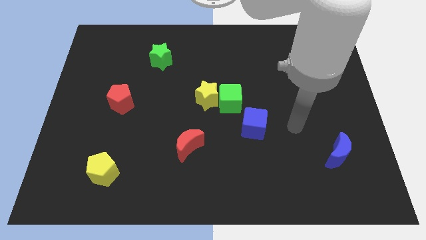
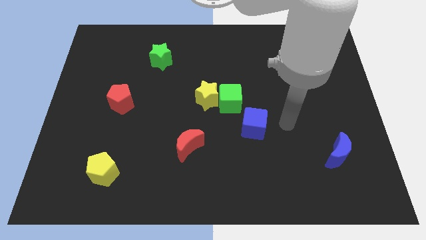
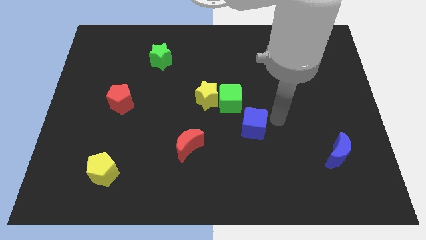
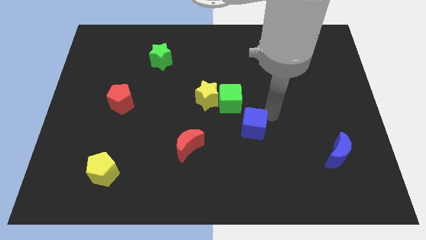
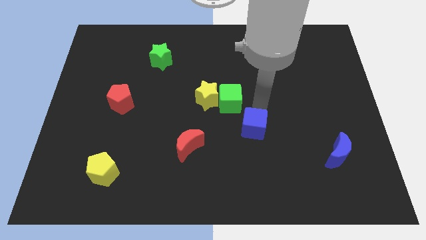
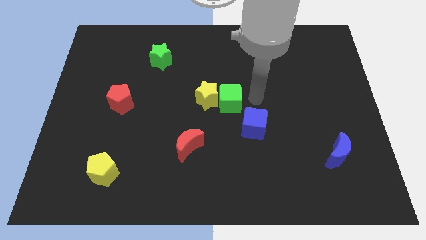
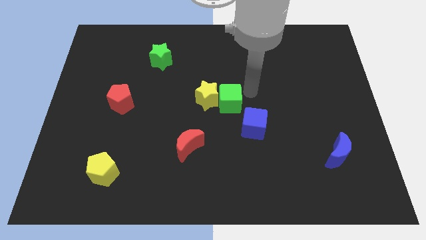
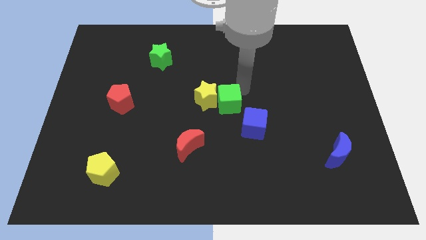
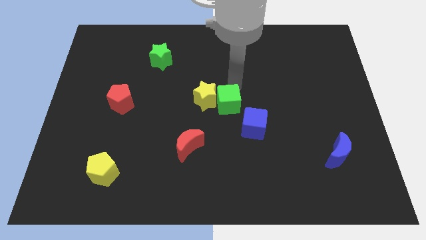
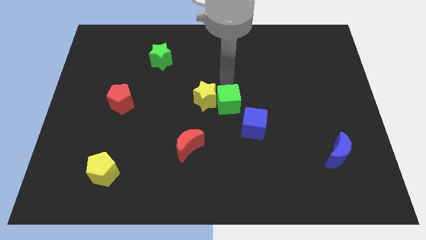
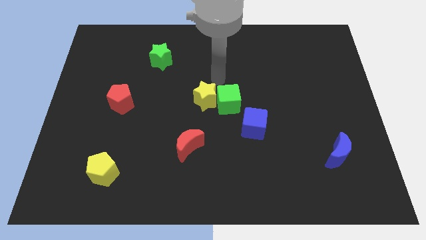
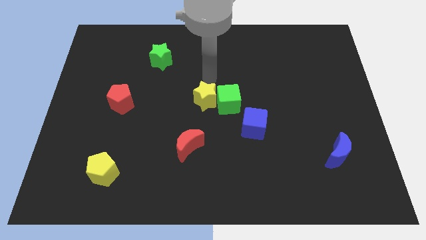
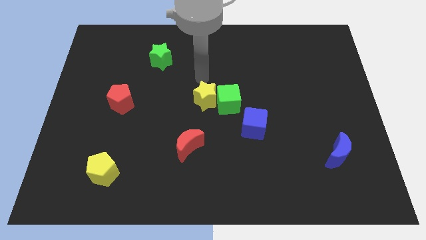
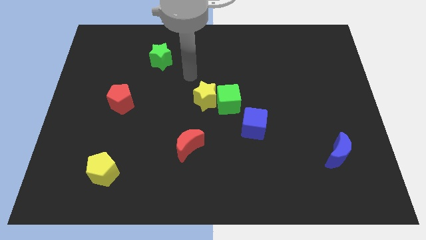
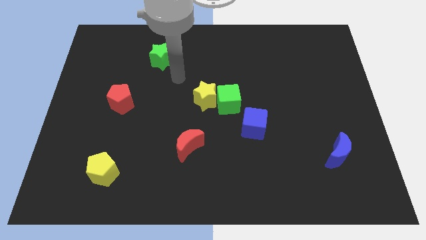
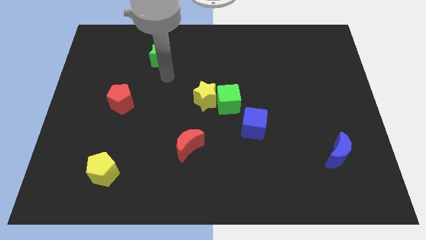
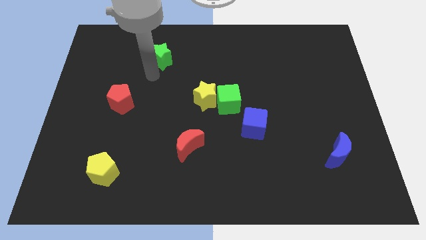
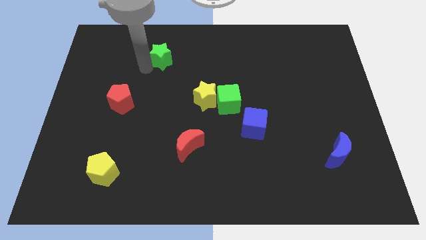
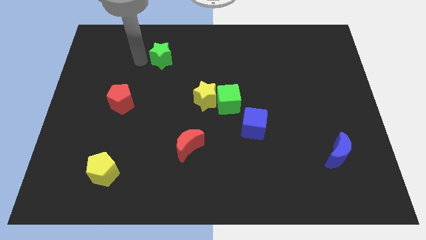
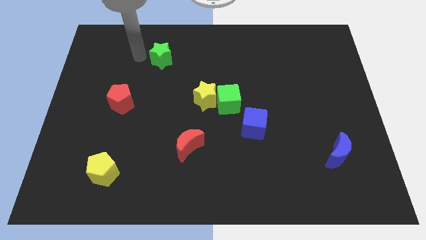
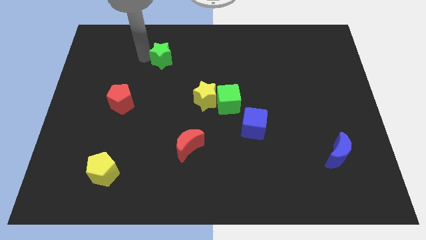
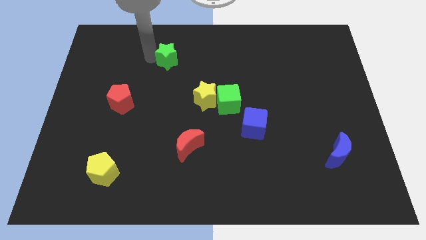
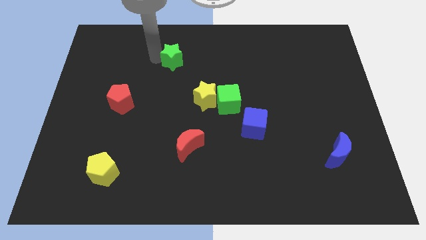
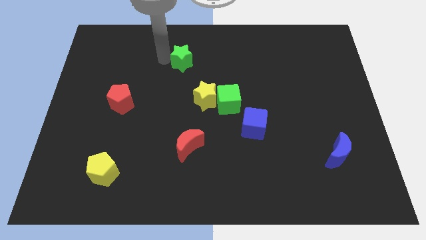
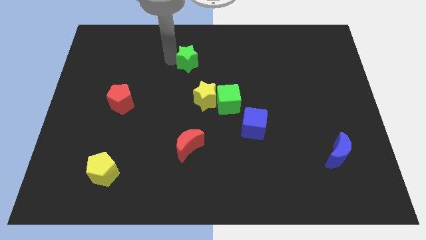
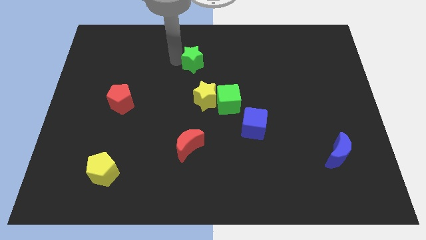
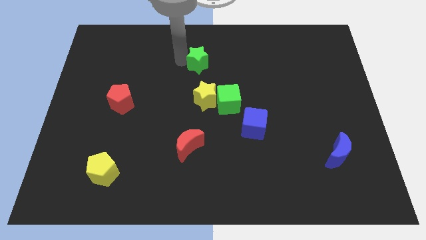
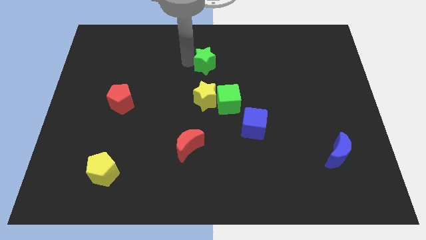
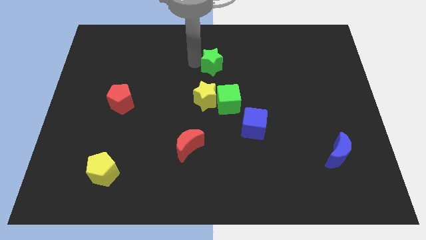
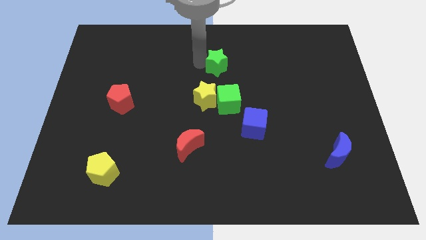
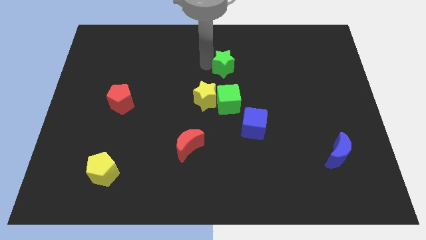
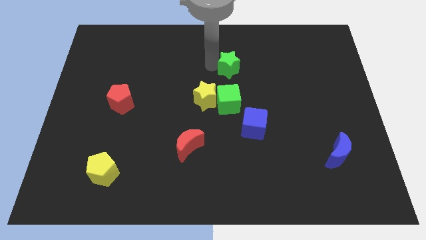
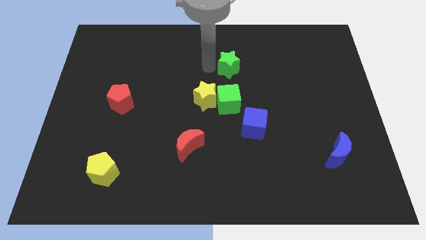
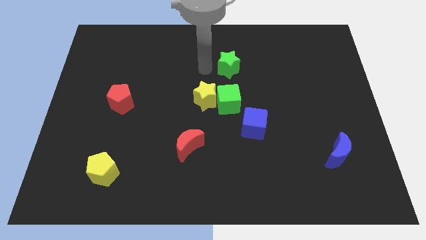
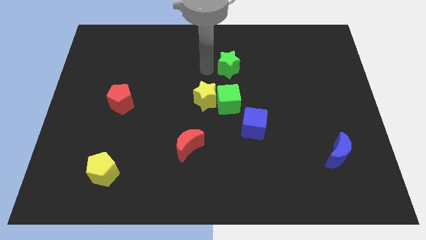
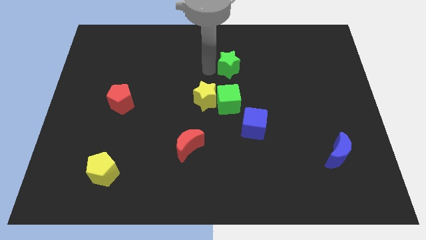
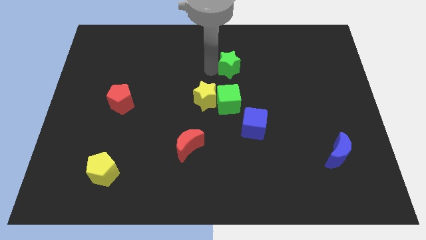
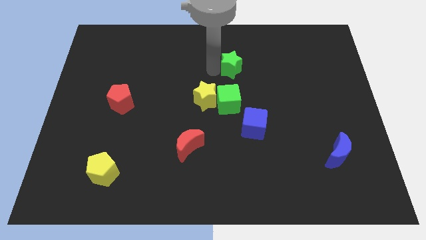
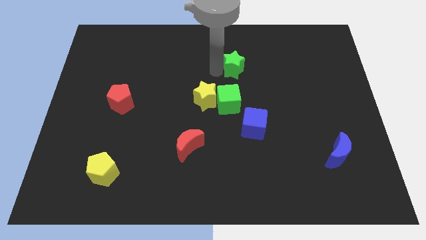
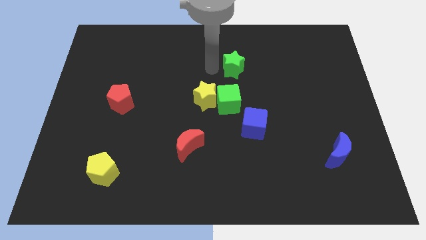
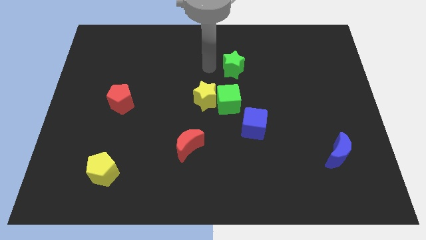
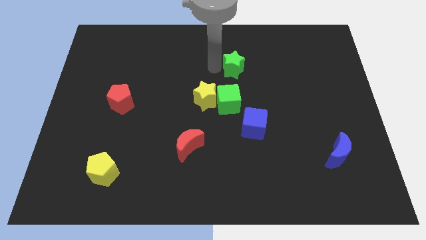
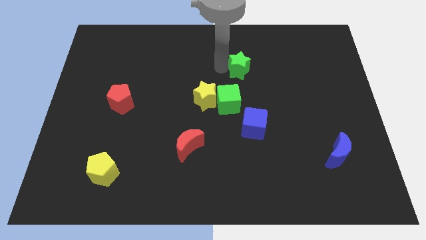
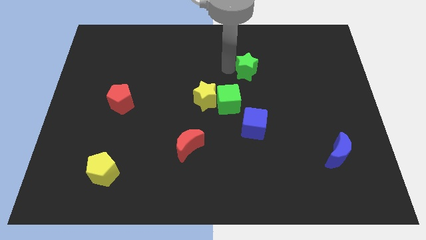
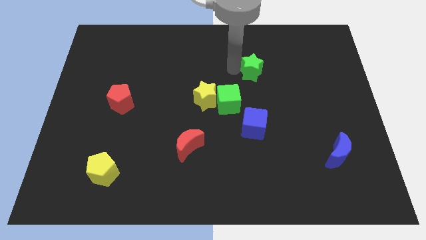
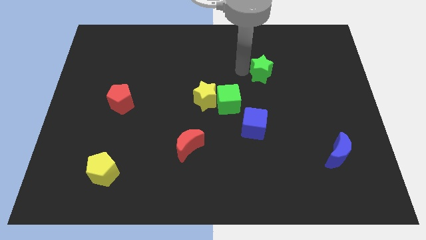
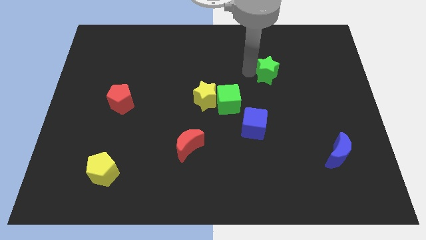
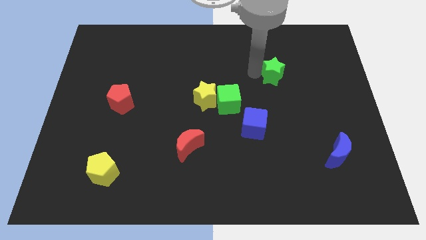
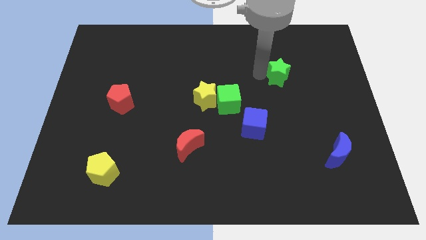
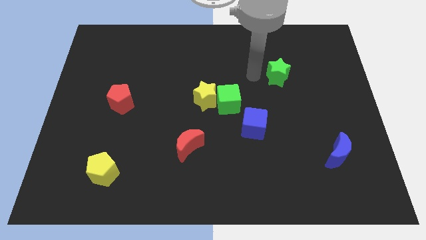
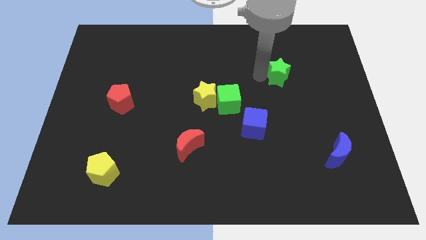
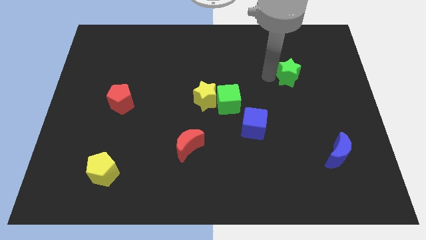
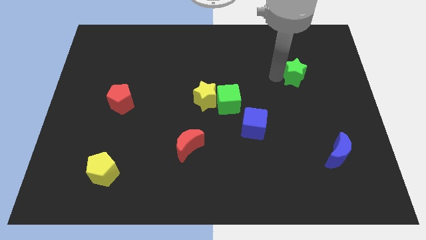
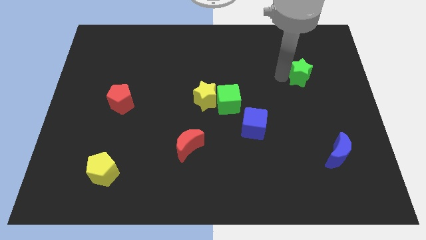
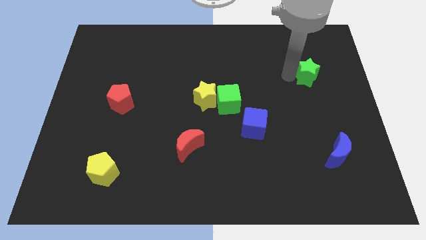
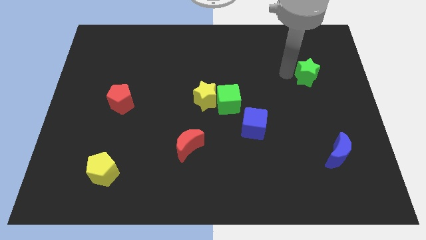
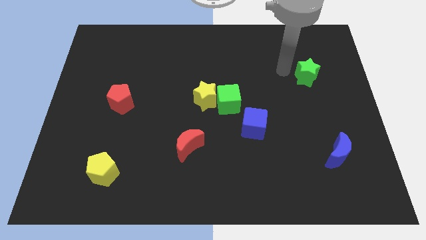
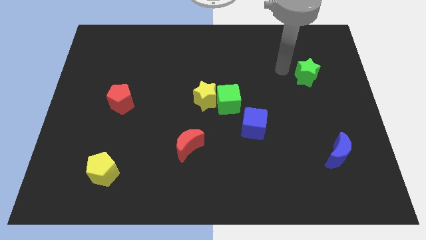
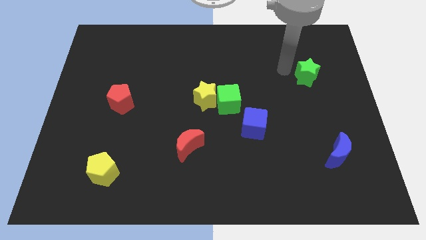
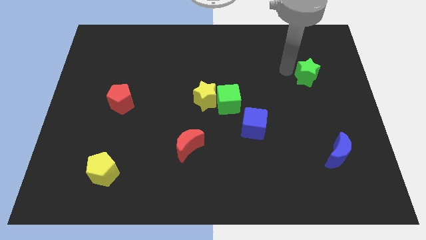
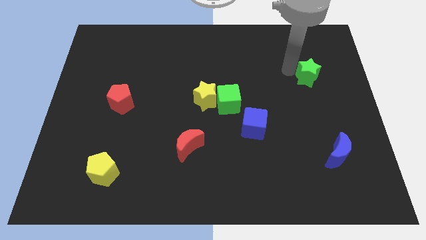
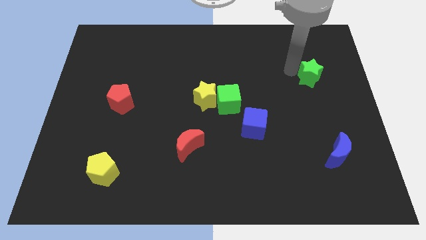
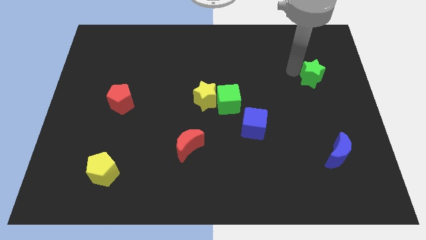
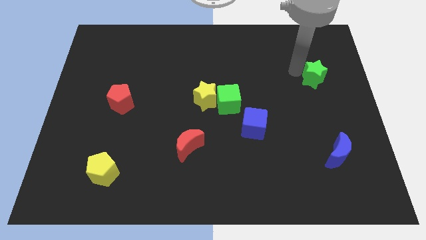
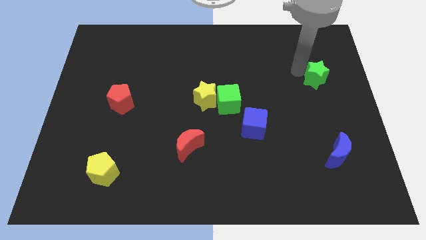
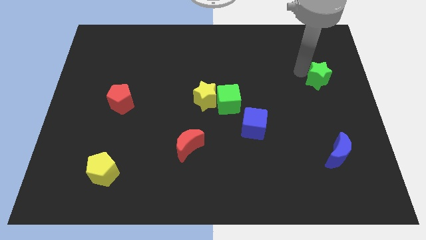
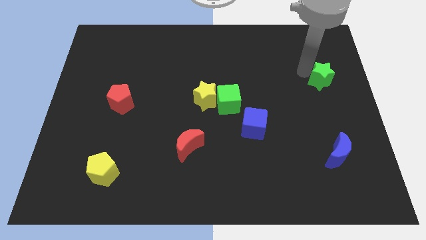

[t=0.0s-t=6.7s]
push the green star to the right side of the board

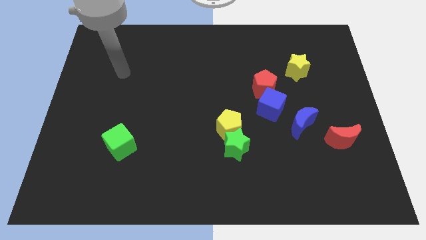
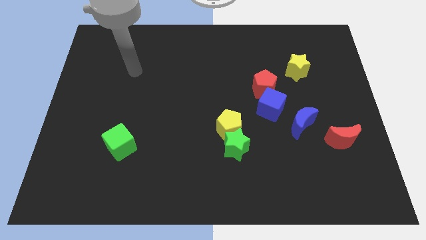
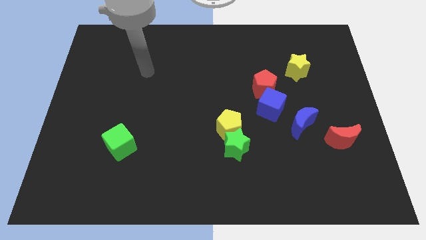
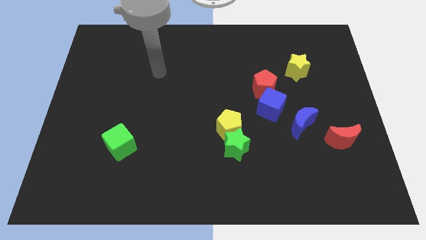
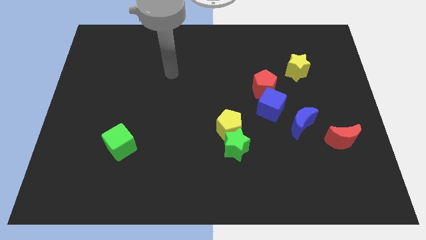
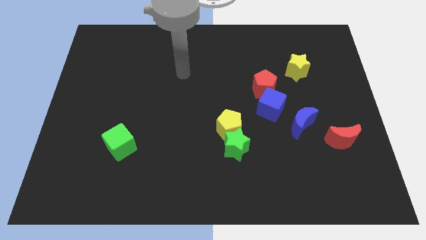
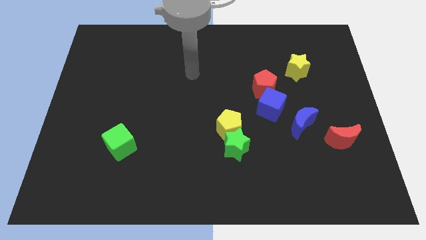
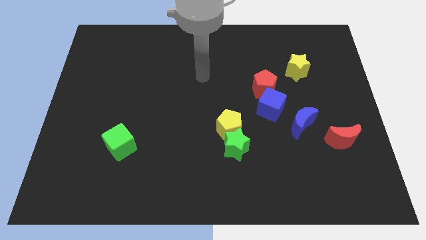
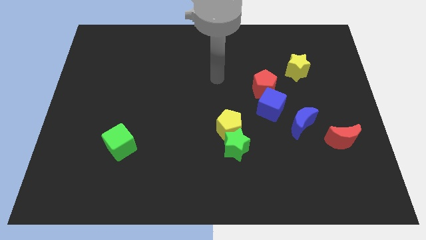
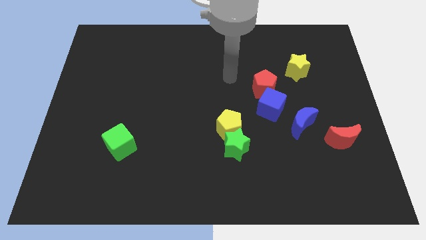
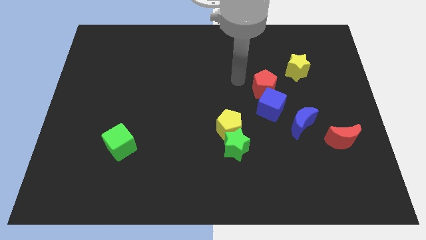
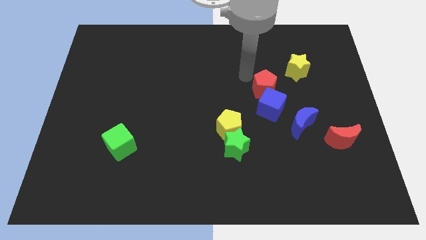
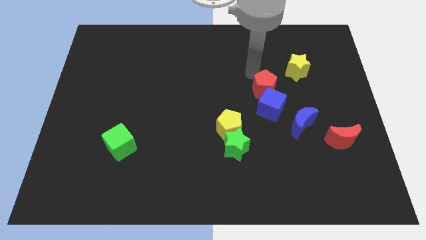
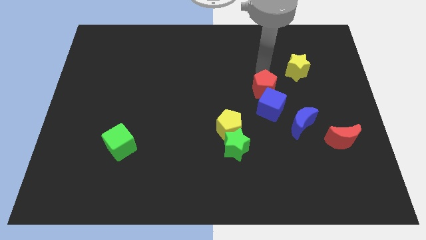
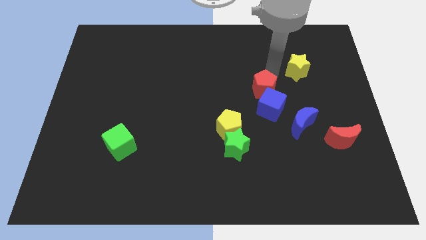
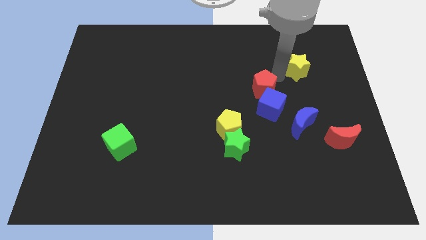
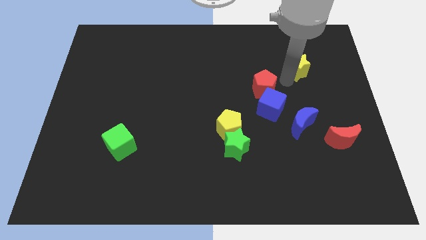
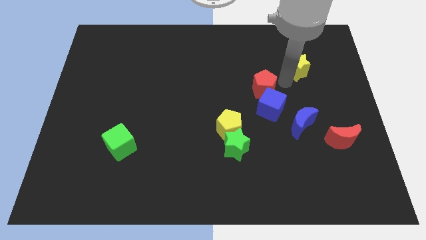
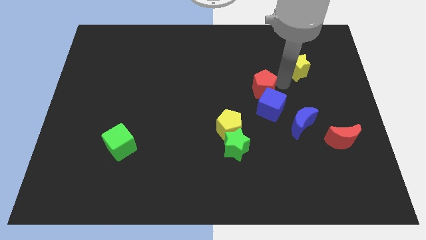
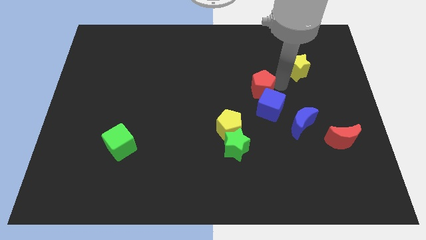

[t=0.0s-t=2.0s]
slide the red pentagon to the middle of the board
